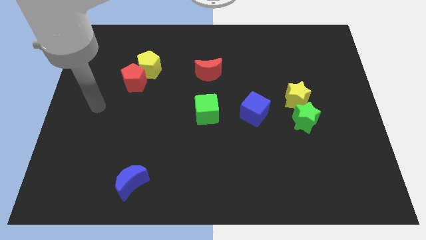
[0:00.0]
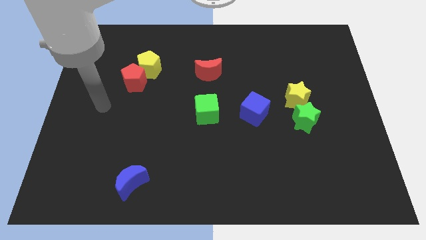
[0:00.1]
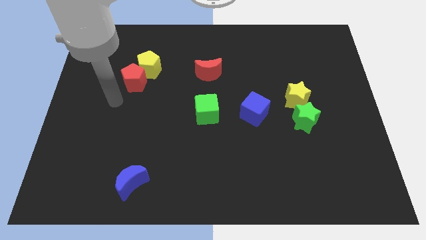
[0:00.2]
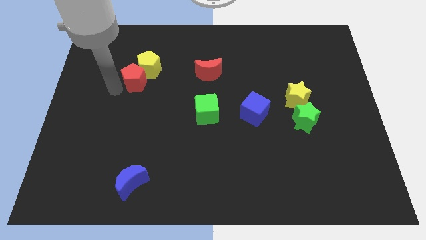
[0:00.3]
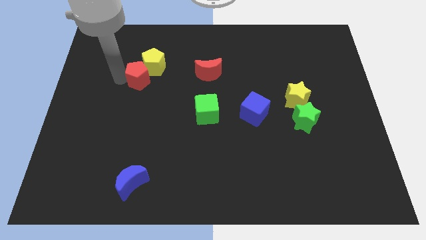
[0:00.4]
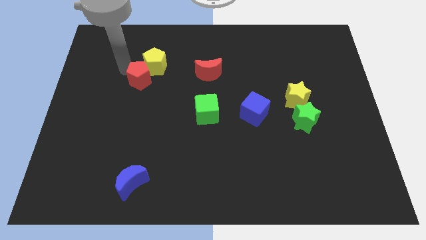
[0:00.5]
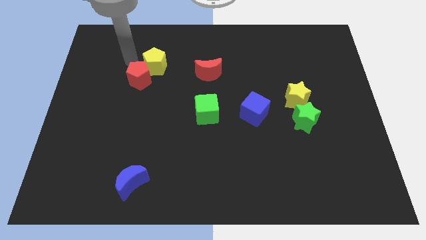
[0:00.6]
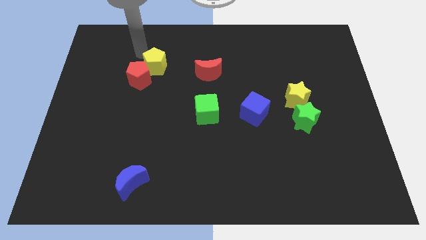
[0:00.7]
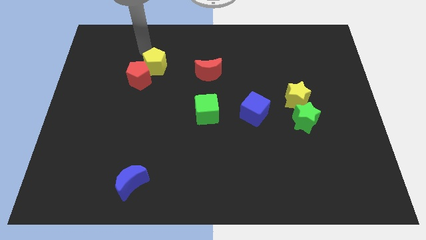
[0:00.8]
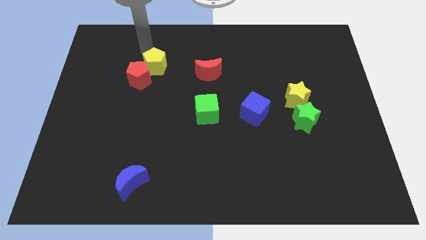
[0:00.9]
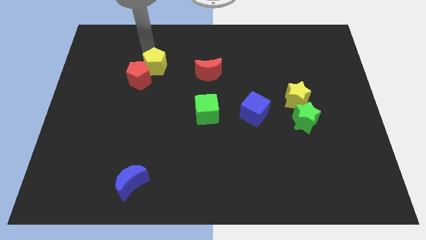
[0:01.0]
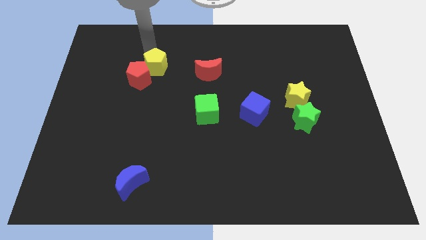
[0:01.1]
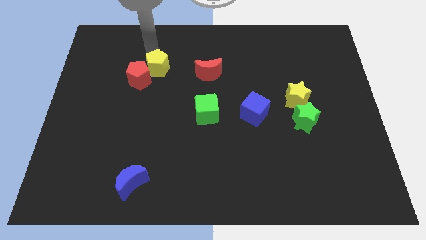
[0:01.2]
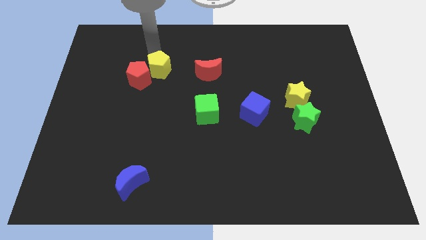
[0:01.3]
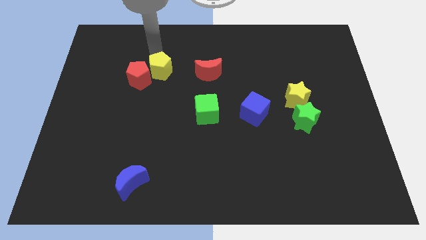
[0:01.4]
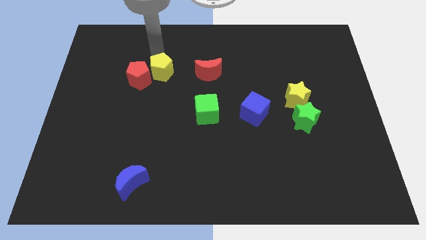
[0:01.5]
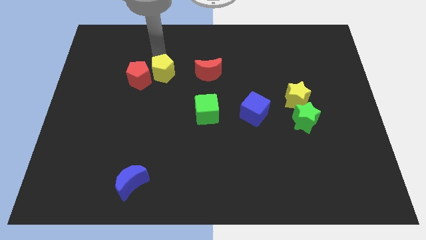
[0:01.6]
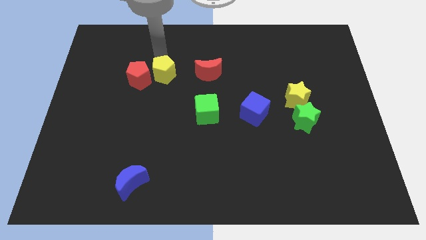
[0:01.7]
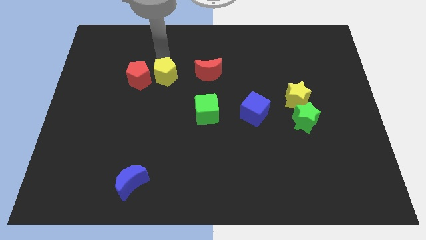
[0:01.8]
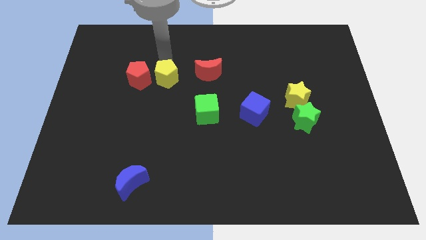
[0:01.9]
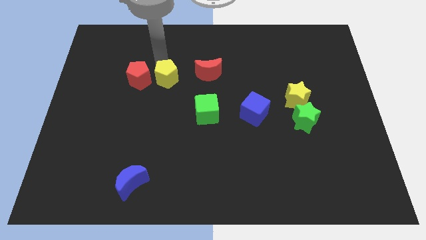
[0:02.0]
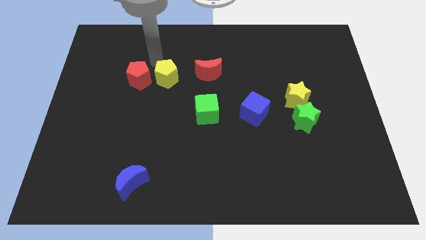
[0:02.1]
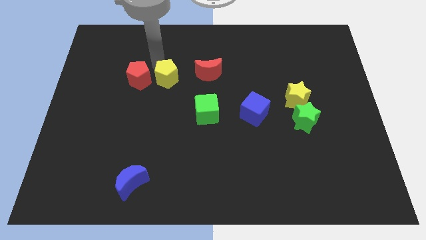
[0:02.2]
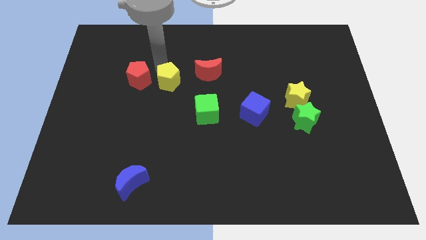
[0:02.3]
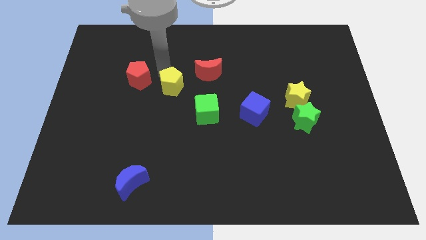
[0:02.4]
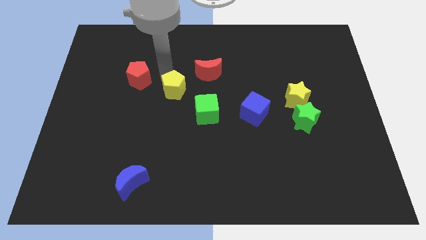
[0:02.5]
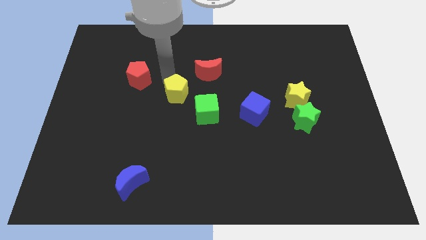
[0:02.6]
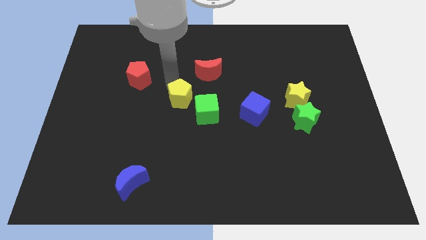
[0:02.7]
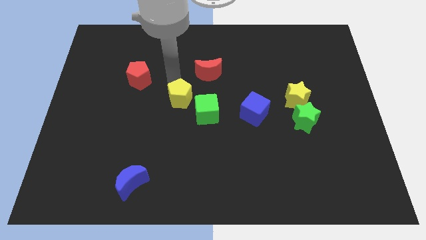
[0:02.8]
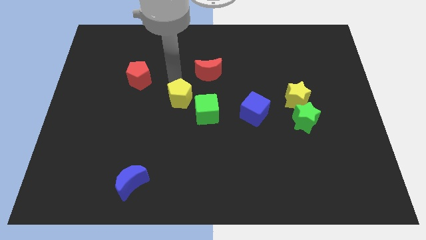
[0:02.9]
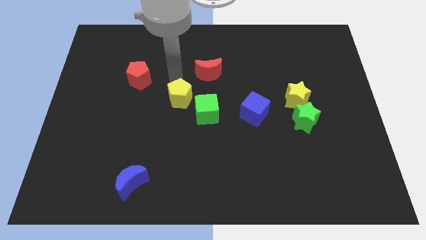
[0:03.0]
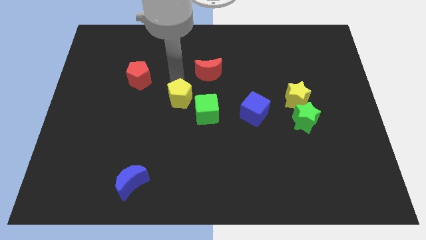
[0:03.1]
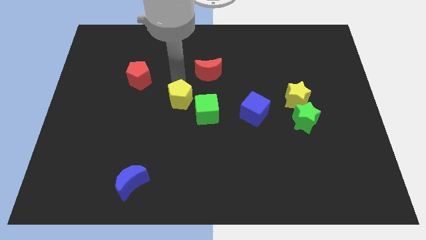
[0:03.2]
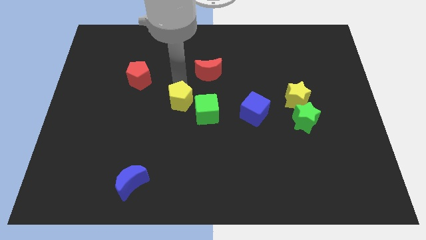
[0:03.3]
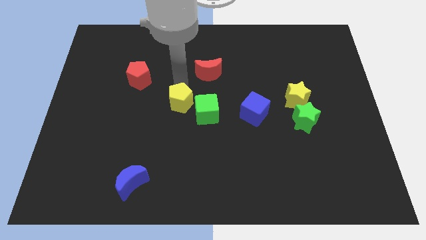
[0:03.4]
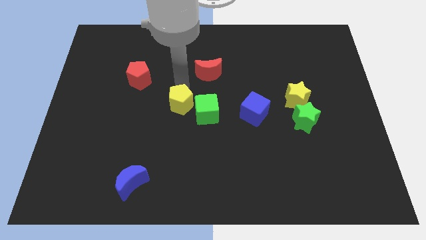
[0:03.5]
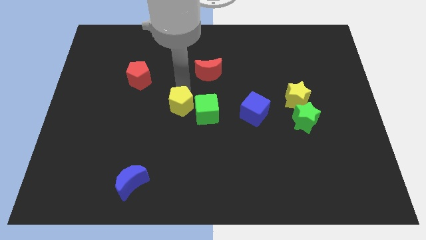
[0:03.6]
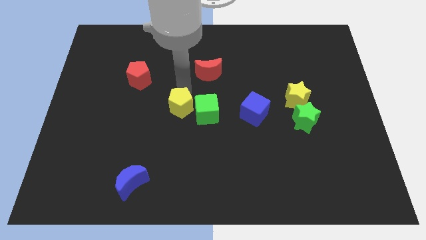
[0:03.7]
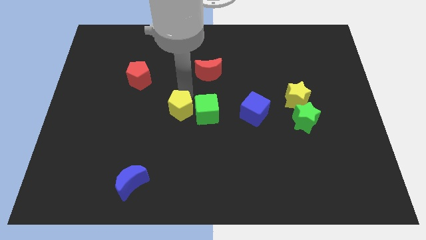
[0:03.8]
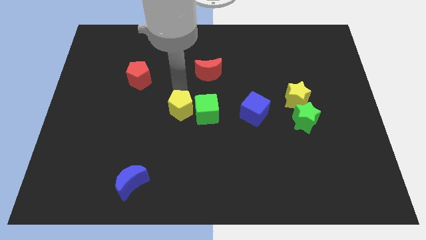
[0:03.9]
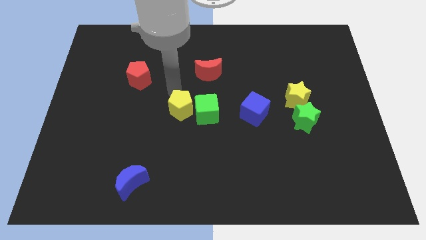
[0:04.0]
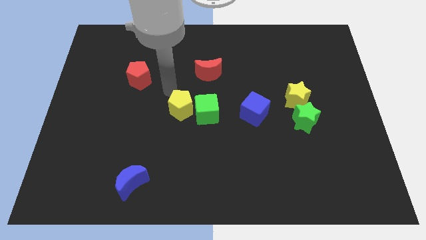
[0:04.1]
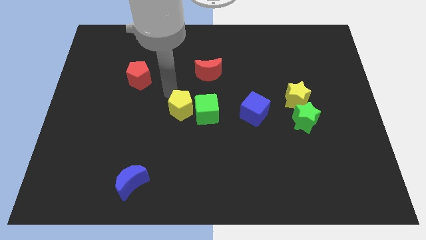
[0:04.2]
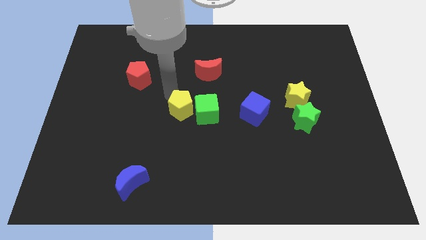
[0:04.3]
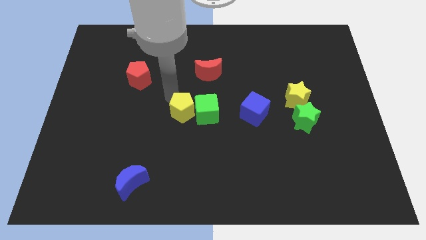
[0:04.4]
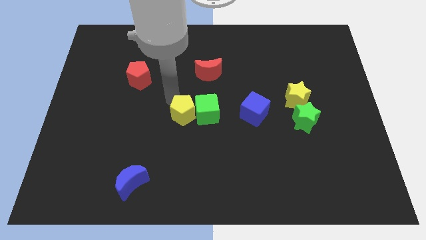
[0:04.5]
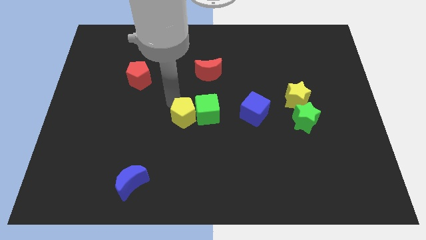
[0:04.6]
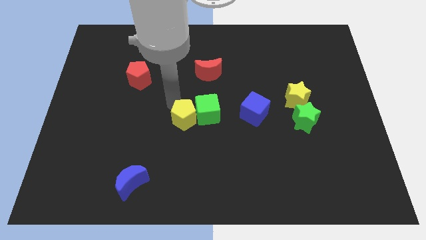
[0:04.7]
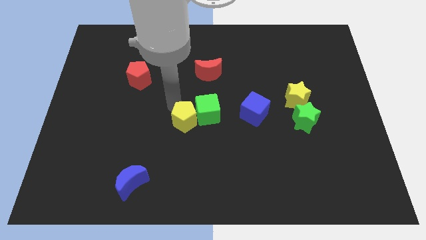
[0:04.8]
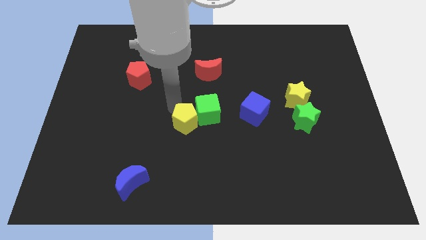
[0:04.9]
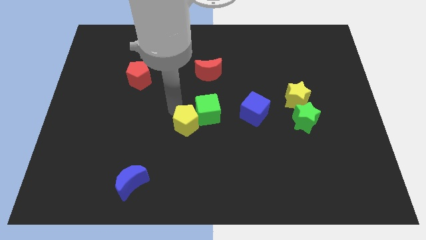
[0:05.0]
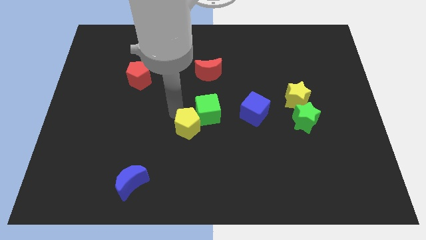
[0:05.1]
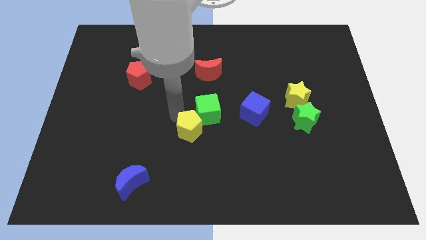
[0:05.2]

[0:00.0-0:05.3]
move the yellow pentagon down and to the right

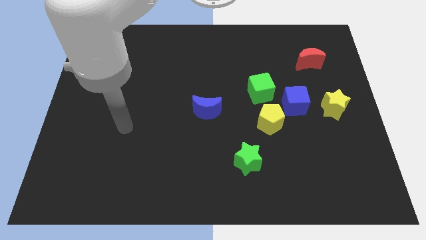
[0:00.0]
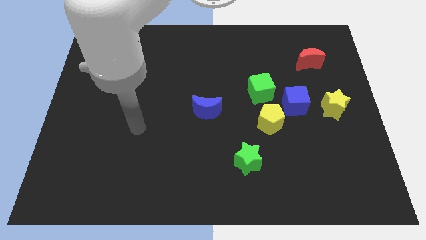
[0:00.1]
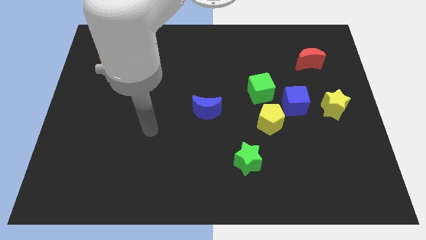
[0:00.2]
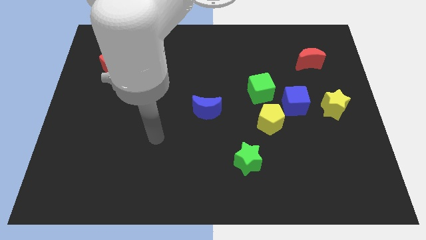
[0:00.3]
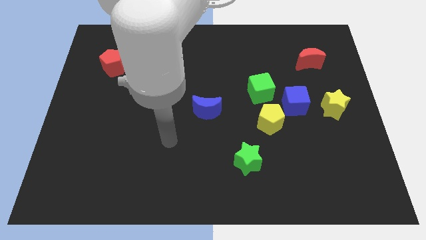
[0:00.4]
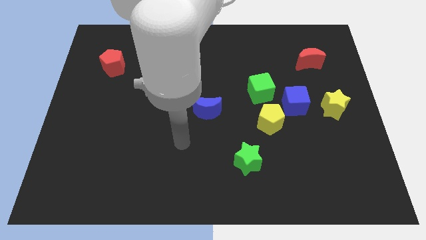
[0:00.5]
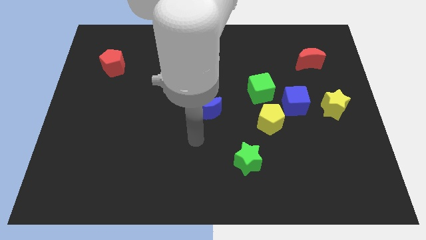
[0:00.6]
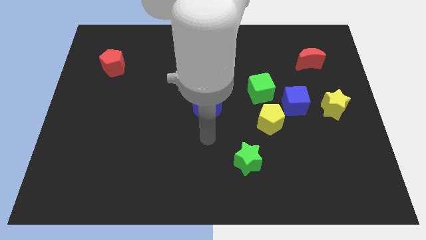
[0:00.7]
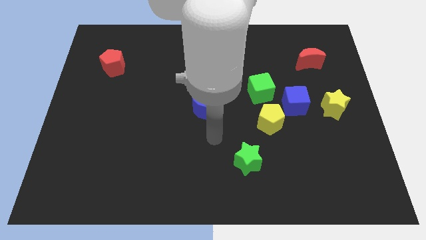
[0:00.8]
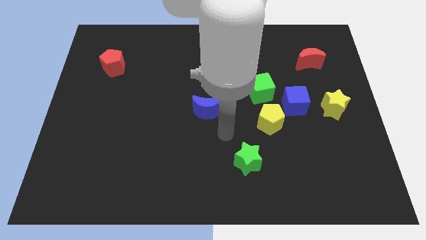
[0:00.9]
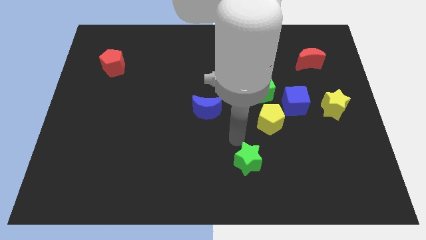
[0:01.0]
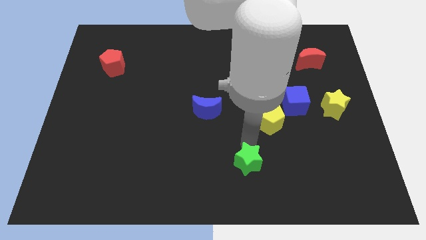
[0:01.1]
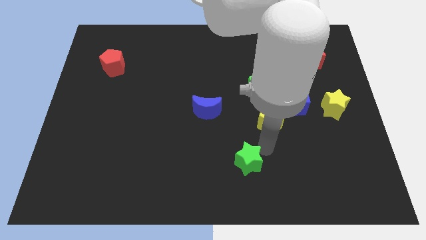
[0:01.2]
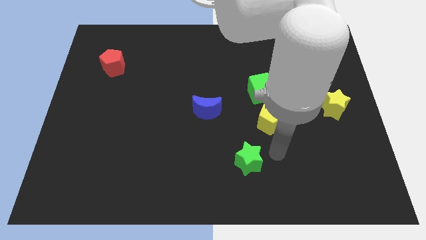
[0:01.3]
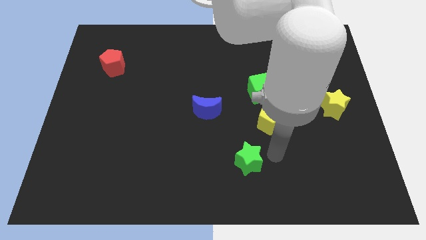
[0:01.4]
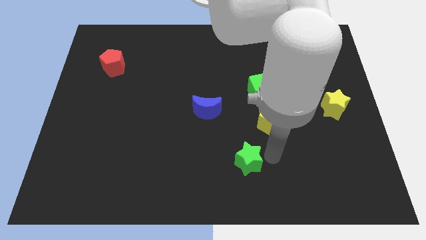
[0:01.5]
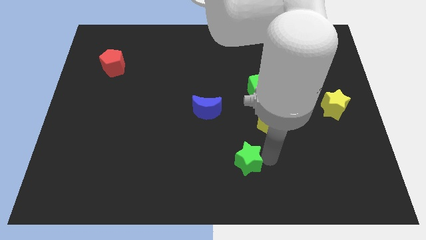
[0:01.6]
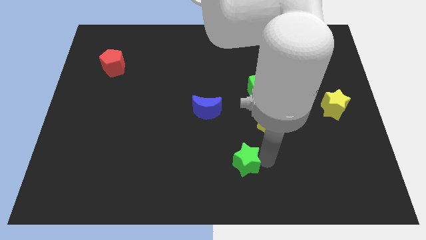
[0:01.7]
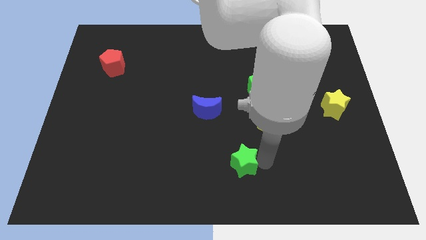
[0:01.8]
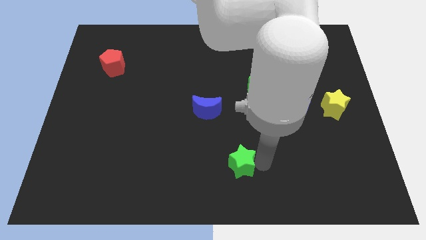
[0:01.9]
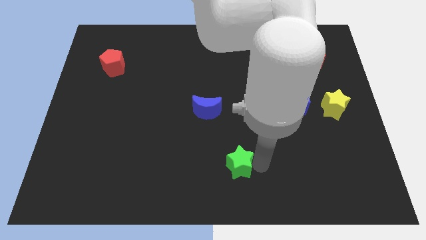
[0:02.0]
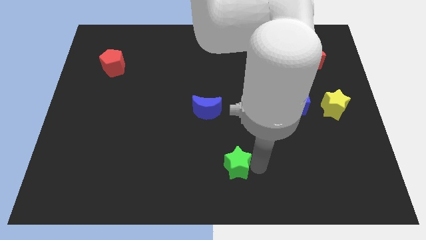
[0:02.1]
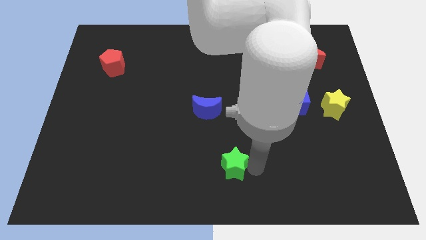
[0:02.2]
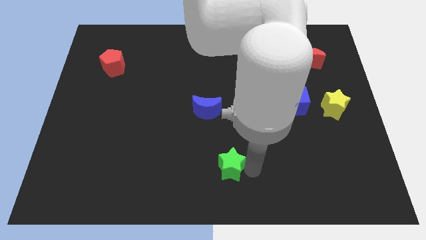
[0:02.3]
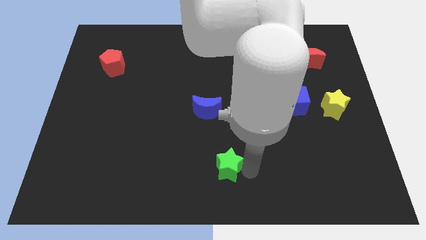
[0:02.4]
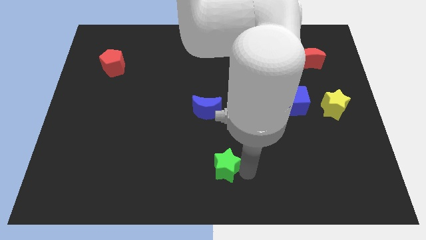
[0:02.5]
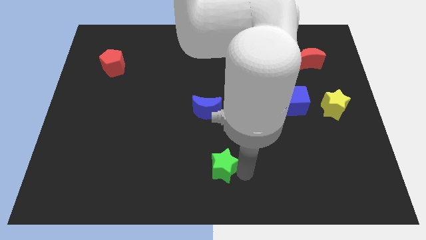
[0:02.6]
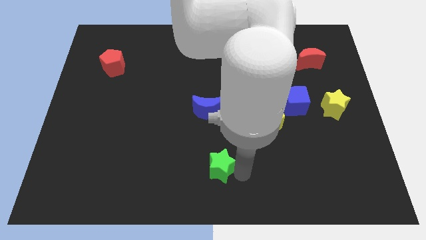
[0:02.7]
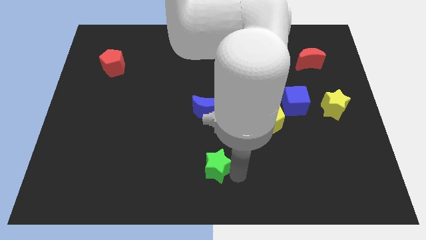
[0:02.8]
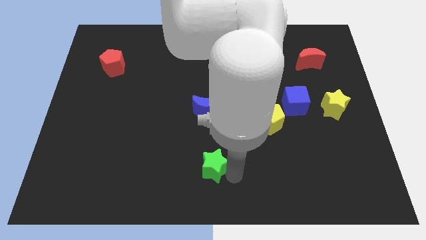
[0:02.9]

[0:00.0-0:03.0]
push the green star a bit left
